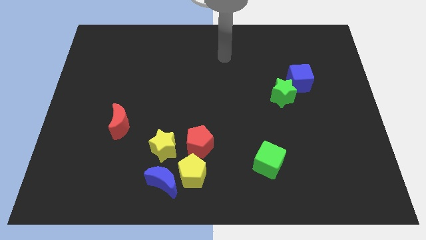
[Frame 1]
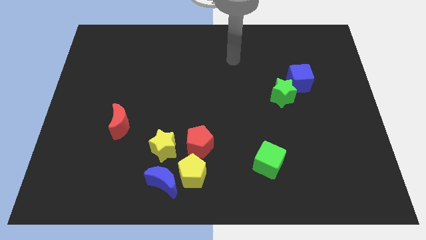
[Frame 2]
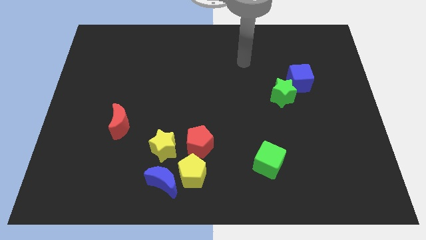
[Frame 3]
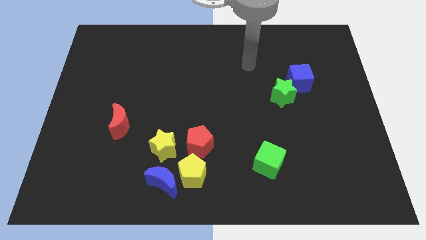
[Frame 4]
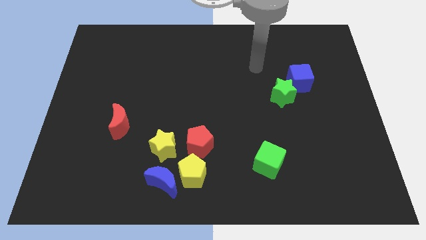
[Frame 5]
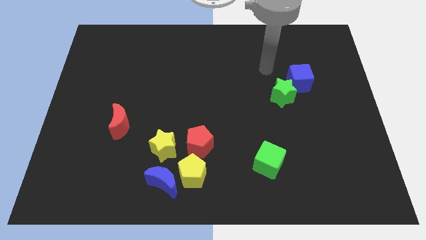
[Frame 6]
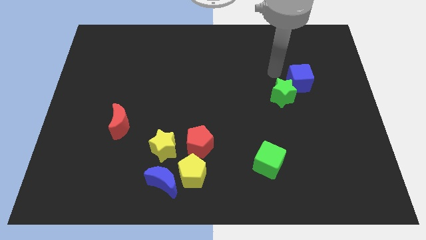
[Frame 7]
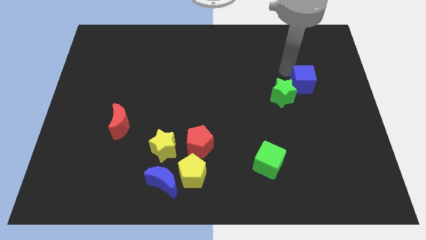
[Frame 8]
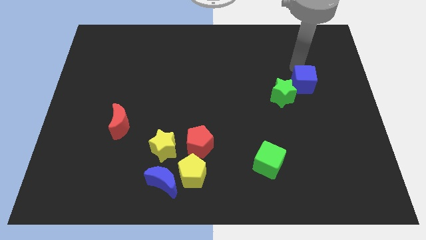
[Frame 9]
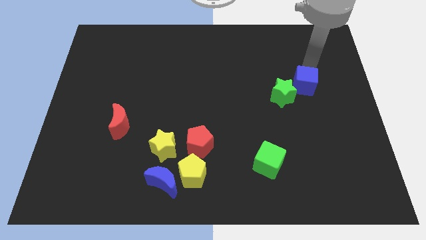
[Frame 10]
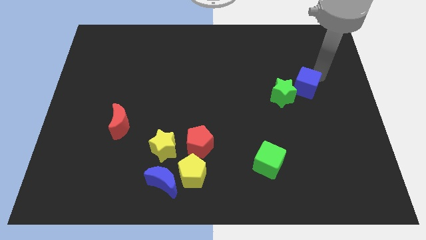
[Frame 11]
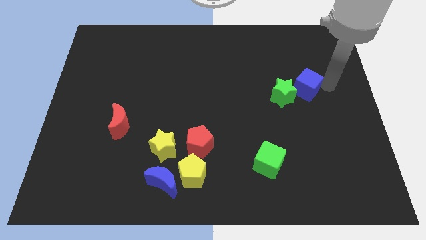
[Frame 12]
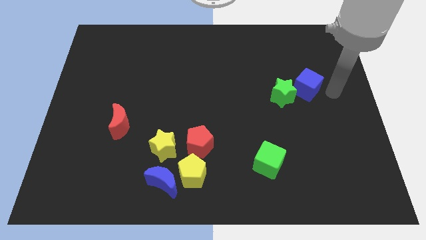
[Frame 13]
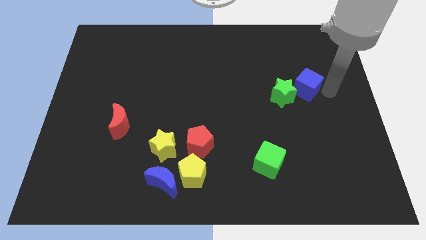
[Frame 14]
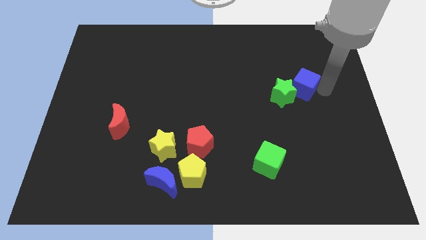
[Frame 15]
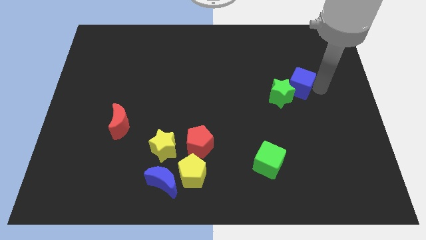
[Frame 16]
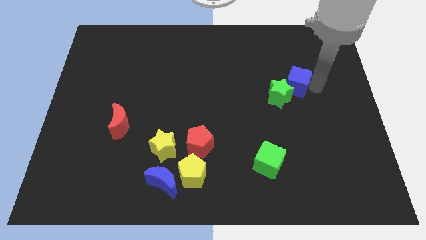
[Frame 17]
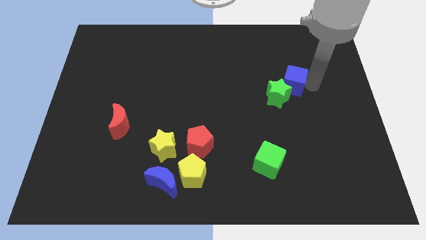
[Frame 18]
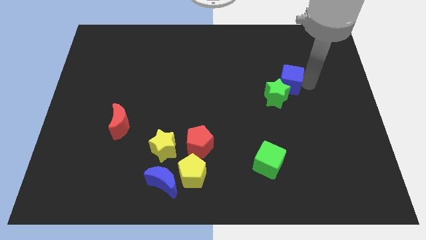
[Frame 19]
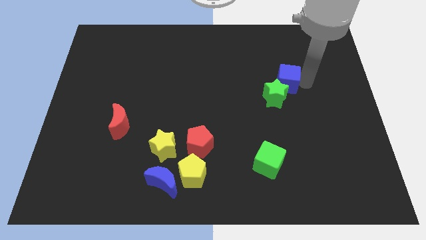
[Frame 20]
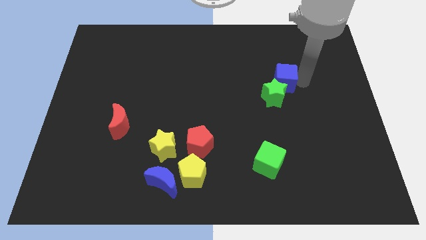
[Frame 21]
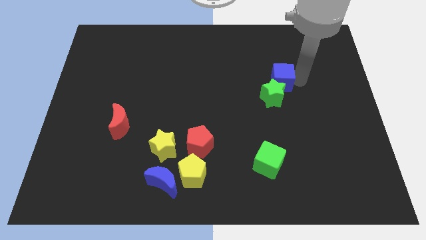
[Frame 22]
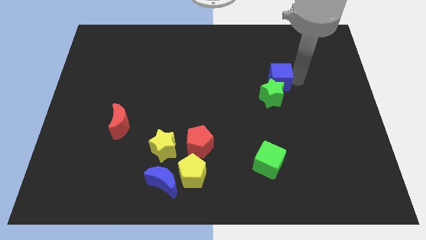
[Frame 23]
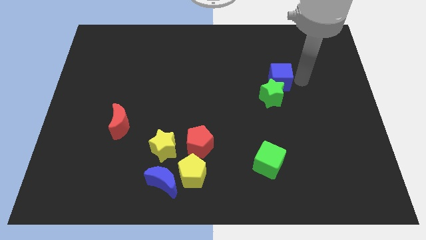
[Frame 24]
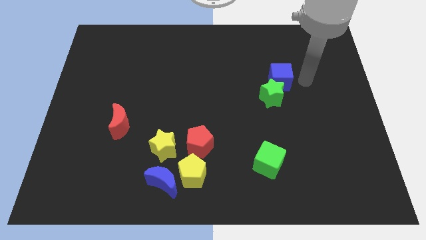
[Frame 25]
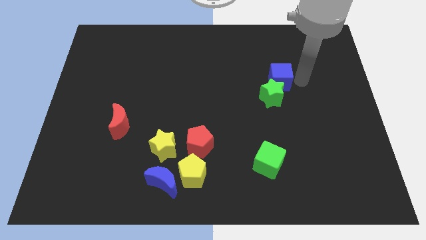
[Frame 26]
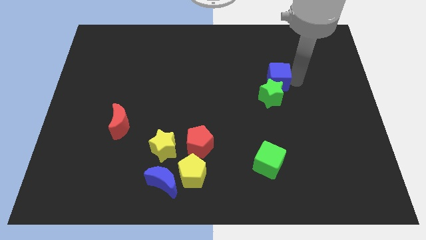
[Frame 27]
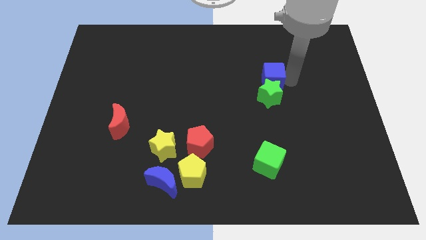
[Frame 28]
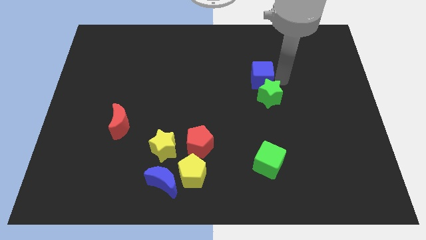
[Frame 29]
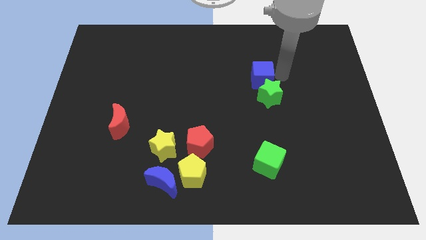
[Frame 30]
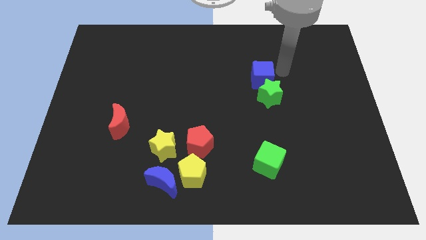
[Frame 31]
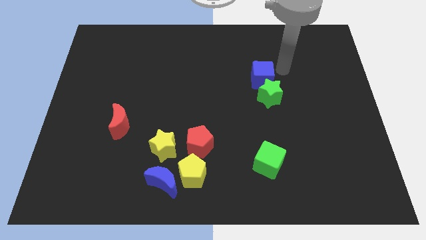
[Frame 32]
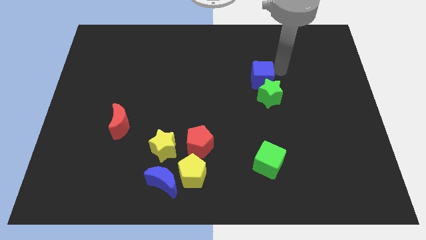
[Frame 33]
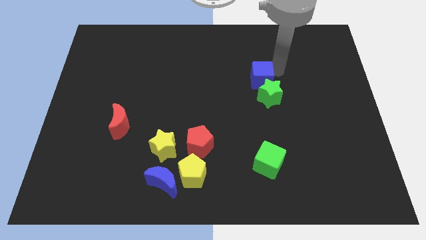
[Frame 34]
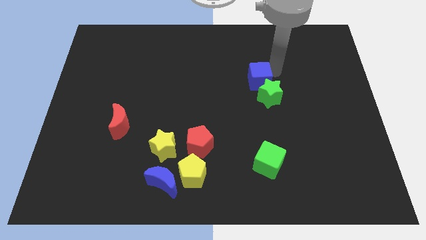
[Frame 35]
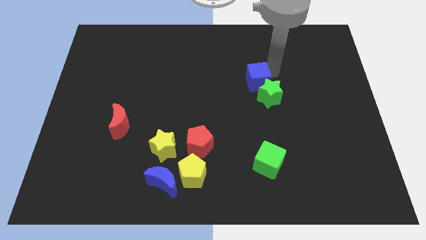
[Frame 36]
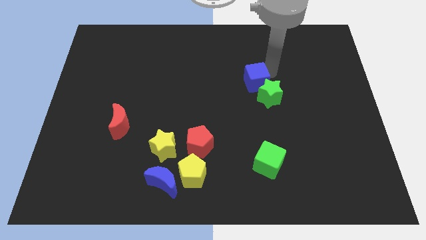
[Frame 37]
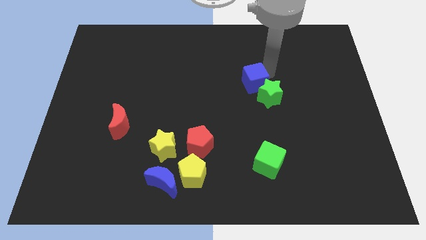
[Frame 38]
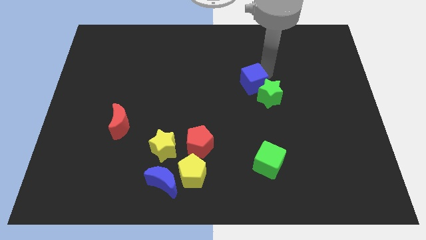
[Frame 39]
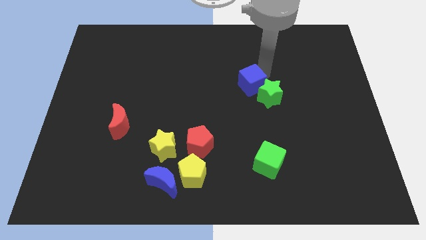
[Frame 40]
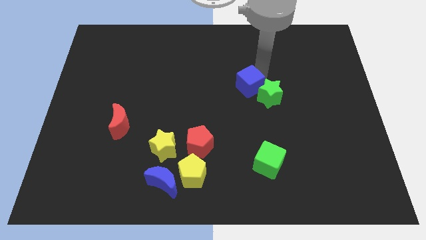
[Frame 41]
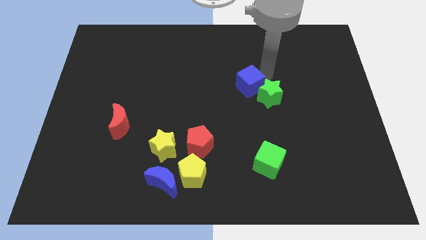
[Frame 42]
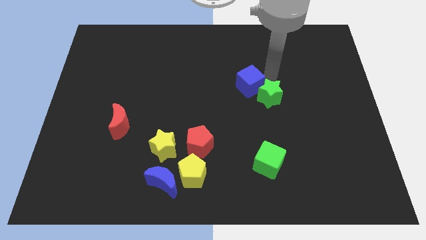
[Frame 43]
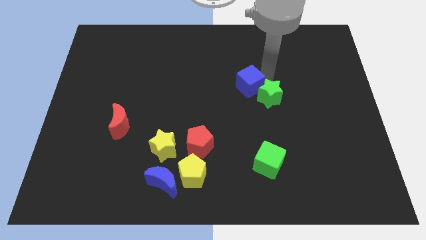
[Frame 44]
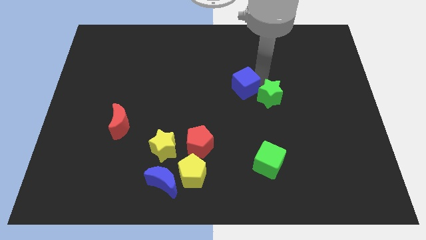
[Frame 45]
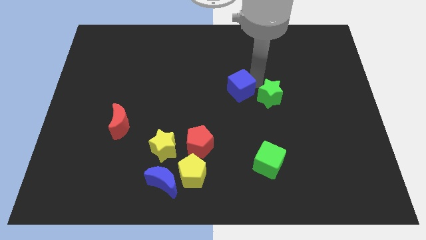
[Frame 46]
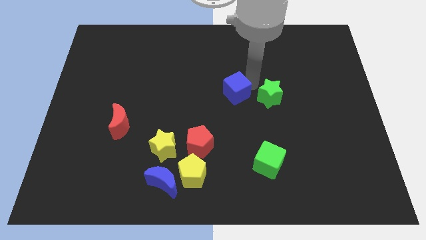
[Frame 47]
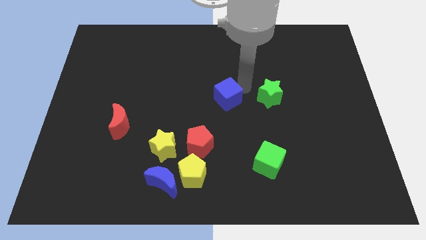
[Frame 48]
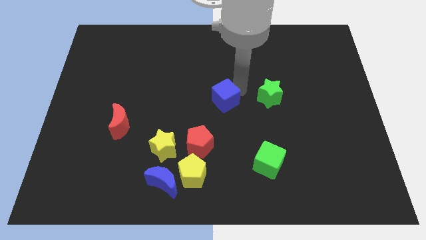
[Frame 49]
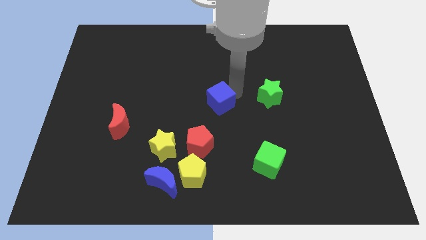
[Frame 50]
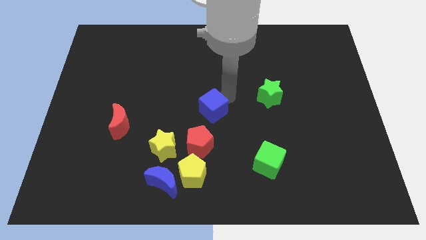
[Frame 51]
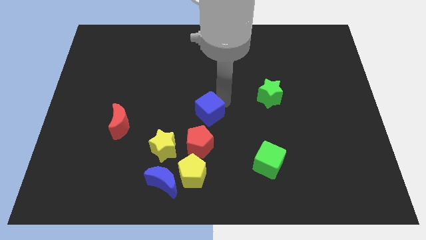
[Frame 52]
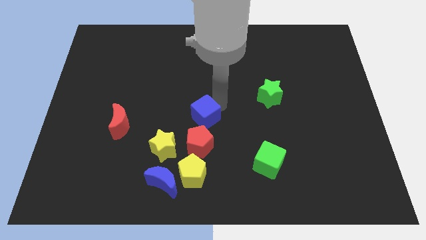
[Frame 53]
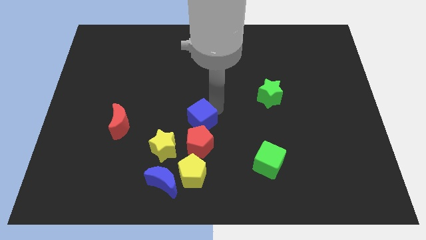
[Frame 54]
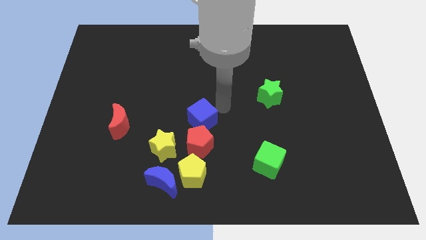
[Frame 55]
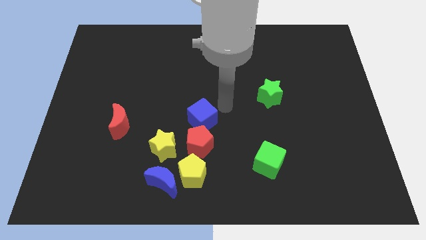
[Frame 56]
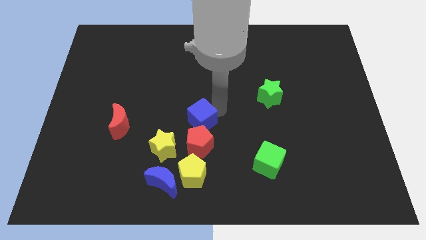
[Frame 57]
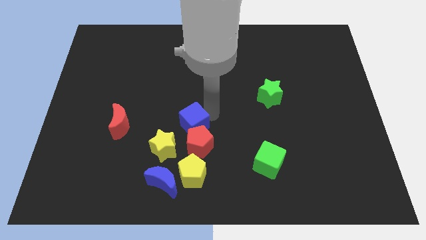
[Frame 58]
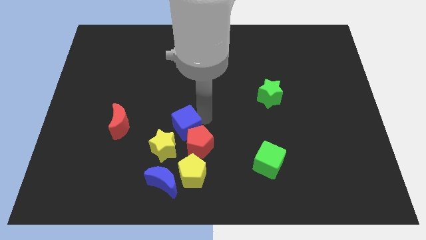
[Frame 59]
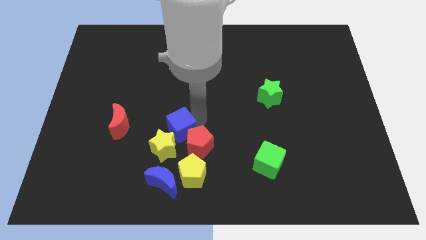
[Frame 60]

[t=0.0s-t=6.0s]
put the blue cube close to the yellow star

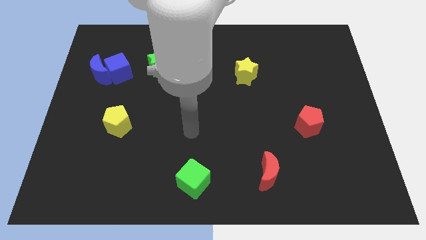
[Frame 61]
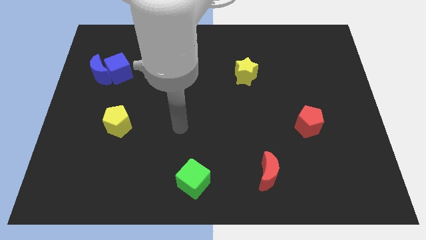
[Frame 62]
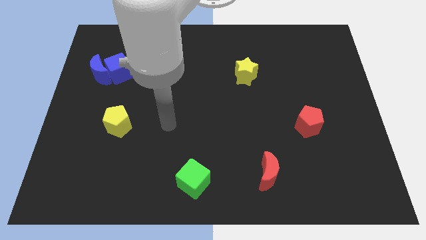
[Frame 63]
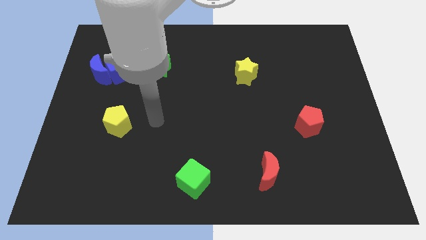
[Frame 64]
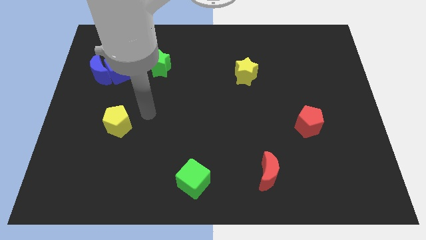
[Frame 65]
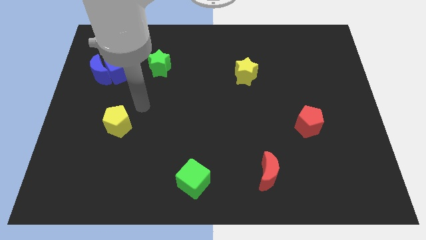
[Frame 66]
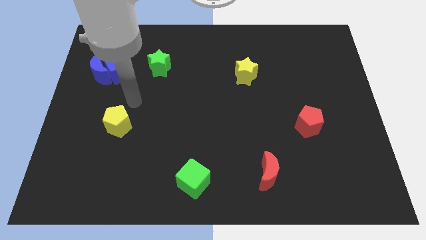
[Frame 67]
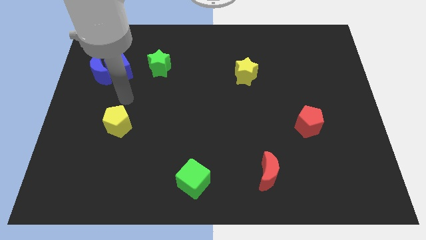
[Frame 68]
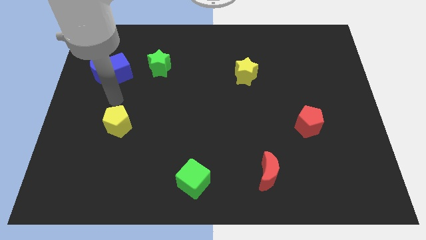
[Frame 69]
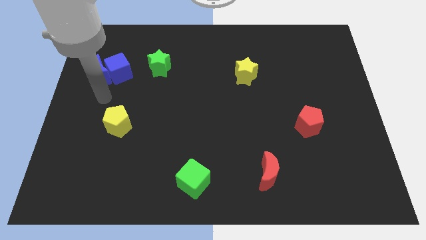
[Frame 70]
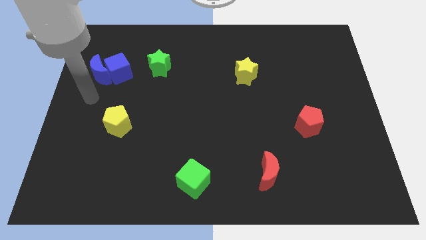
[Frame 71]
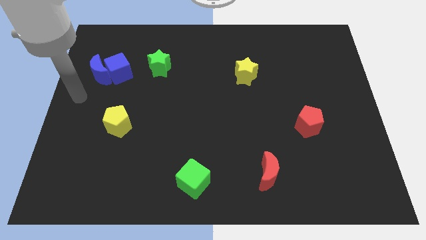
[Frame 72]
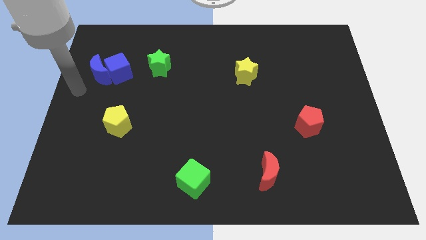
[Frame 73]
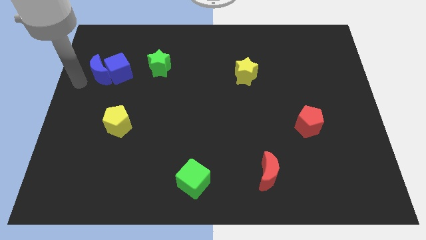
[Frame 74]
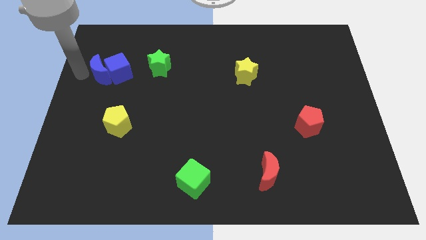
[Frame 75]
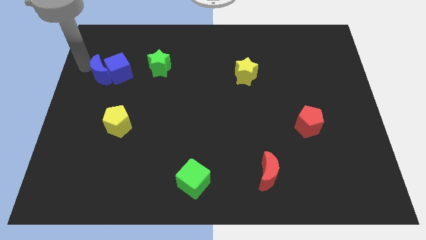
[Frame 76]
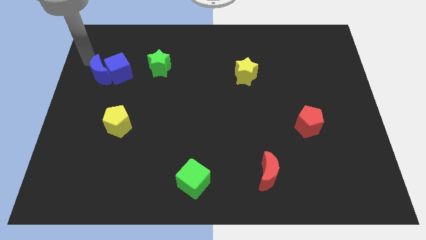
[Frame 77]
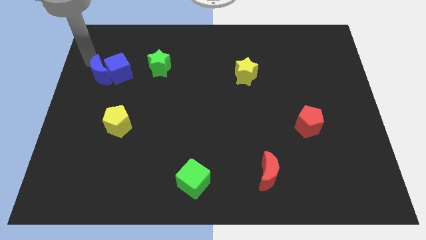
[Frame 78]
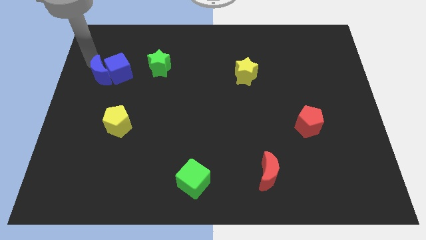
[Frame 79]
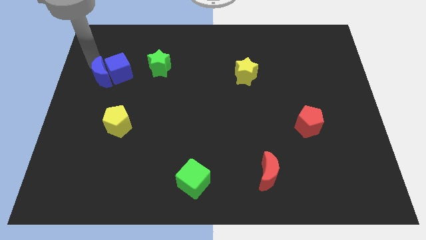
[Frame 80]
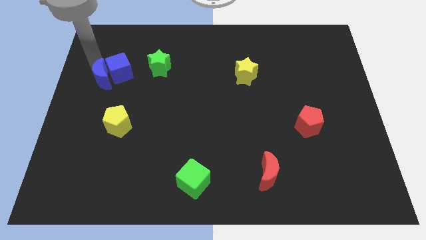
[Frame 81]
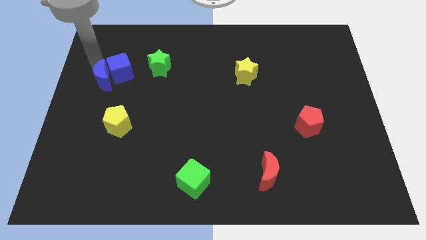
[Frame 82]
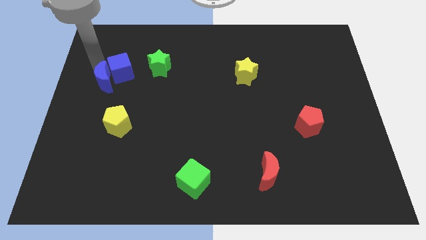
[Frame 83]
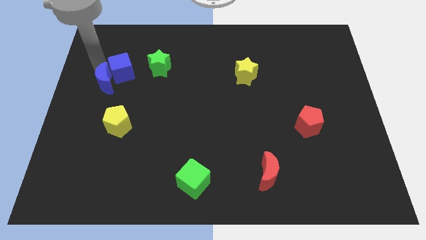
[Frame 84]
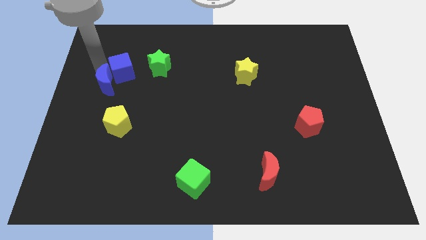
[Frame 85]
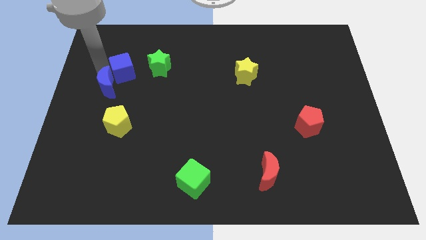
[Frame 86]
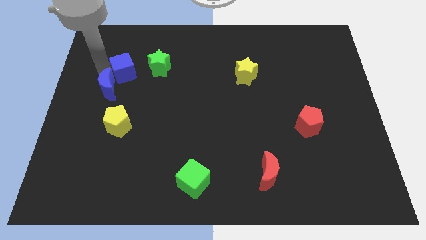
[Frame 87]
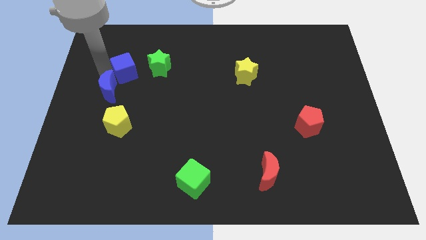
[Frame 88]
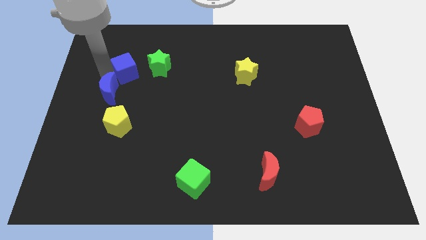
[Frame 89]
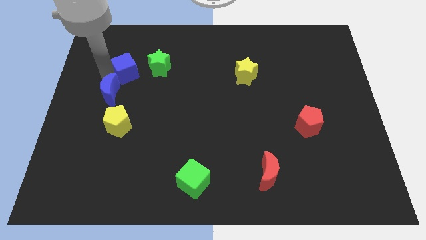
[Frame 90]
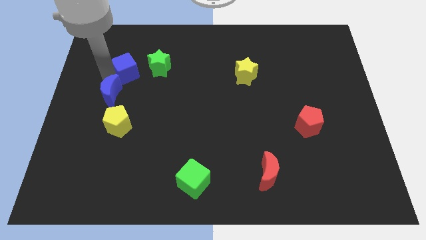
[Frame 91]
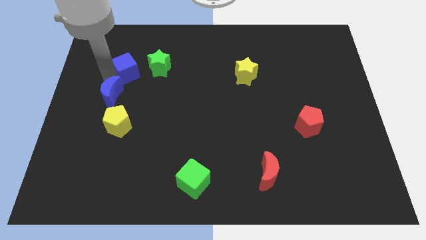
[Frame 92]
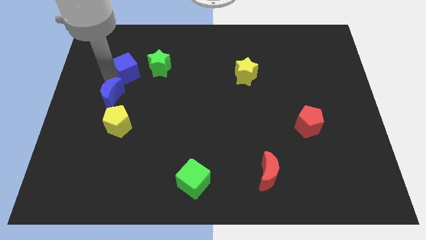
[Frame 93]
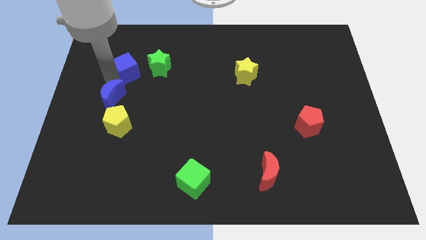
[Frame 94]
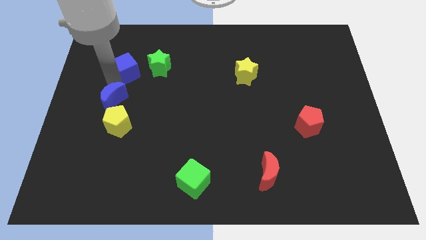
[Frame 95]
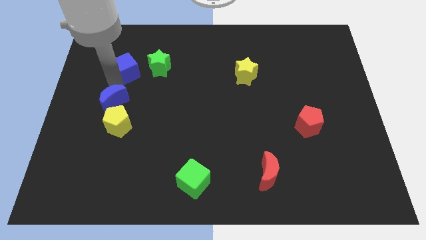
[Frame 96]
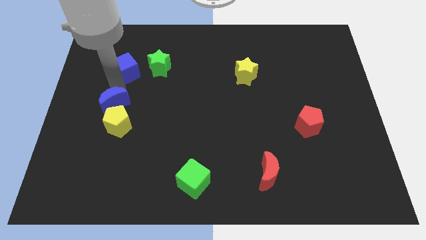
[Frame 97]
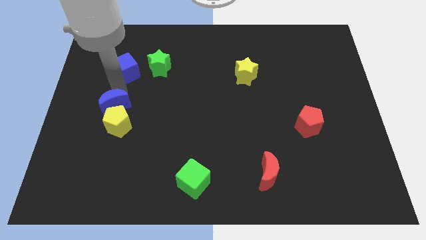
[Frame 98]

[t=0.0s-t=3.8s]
push the blue moon towards the yellow pentagon
